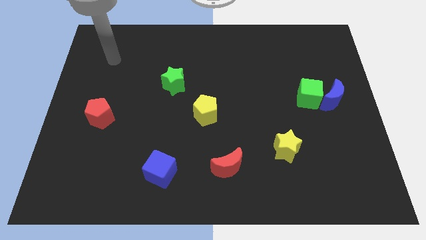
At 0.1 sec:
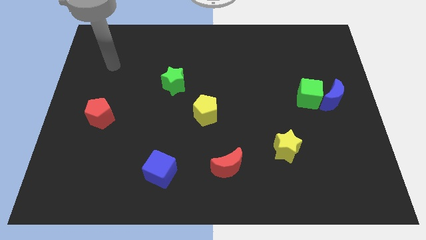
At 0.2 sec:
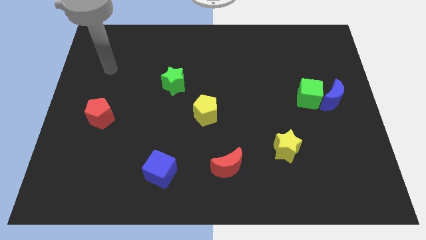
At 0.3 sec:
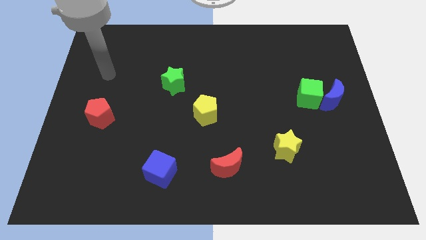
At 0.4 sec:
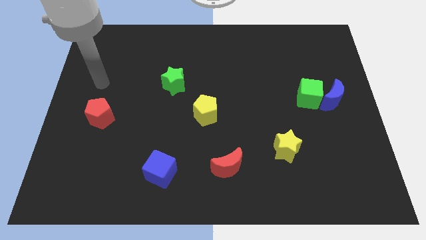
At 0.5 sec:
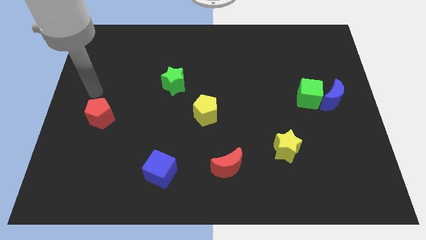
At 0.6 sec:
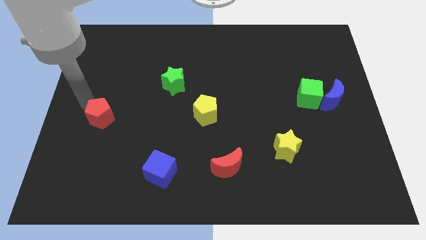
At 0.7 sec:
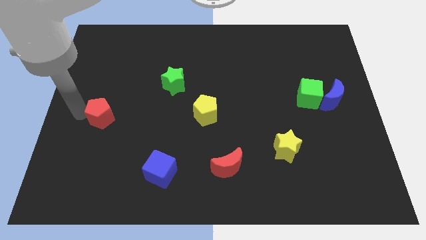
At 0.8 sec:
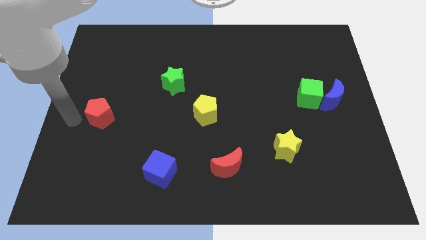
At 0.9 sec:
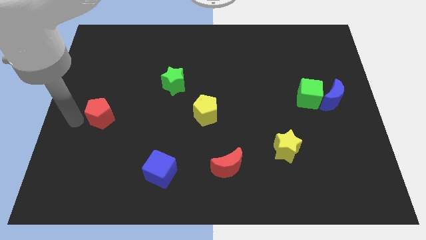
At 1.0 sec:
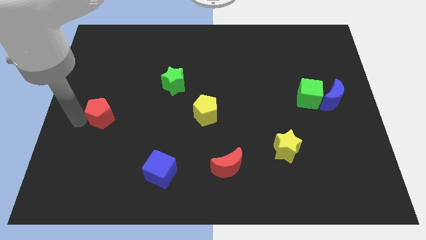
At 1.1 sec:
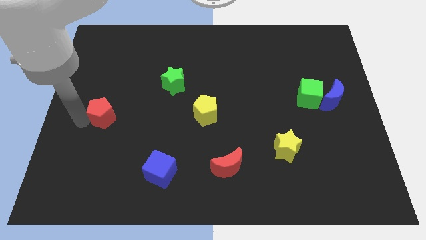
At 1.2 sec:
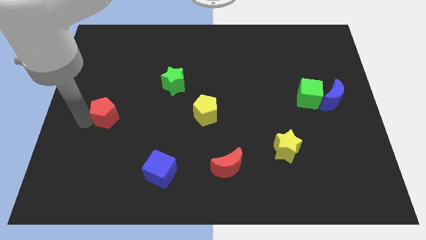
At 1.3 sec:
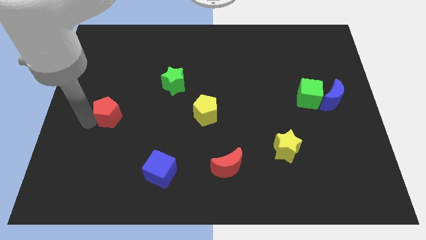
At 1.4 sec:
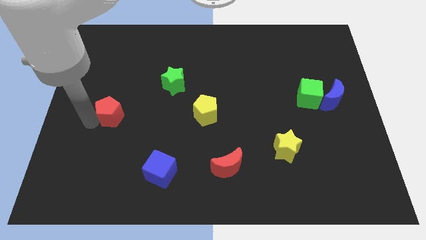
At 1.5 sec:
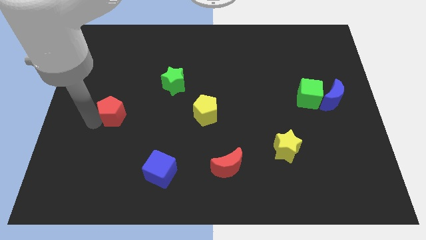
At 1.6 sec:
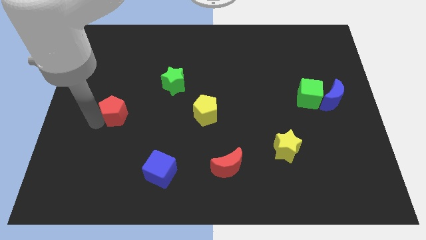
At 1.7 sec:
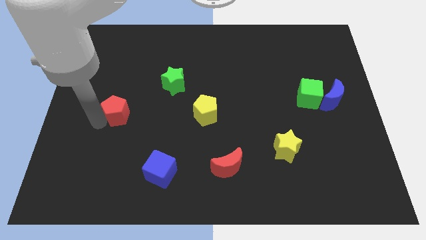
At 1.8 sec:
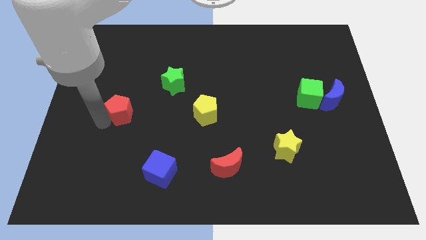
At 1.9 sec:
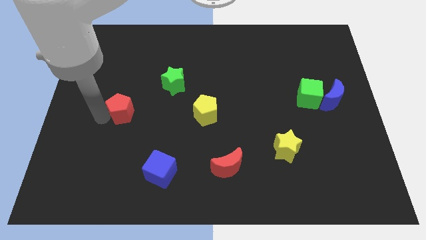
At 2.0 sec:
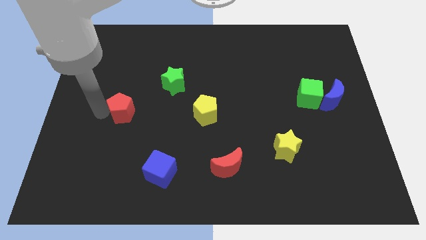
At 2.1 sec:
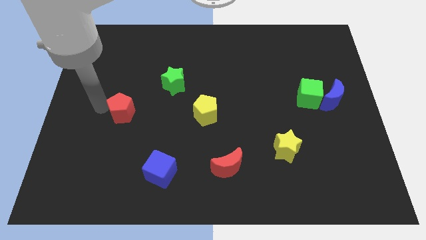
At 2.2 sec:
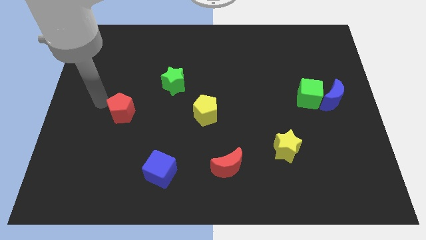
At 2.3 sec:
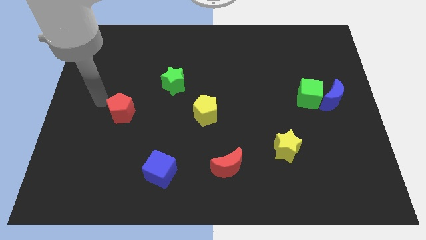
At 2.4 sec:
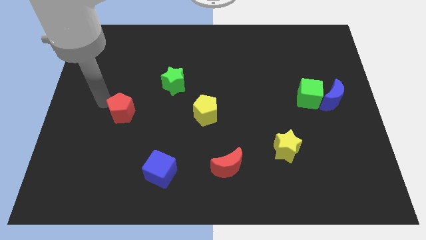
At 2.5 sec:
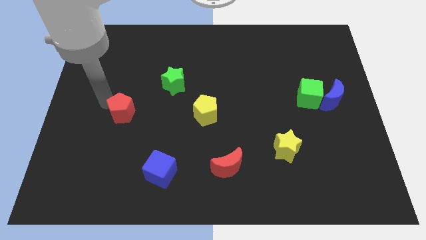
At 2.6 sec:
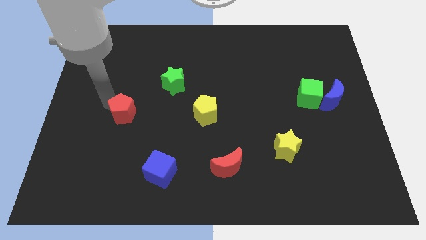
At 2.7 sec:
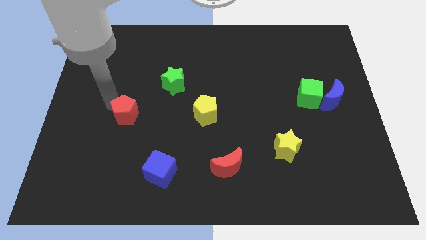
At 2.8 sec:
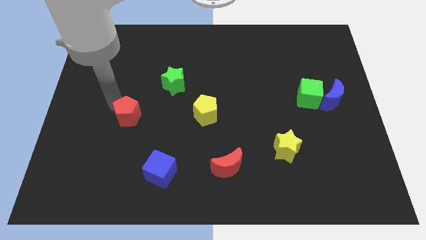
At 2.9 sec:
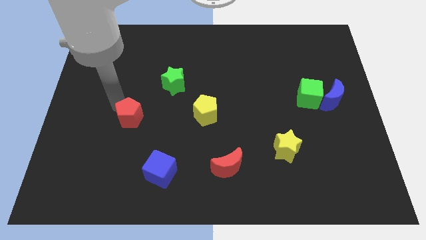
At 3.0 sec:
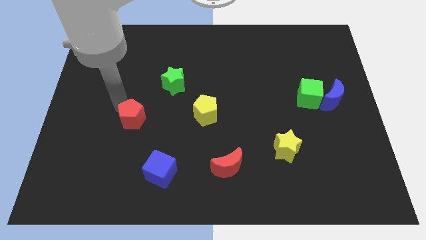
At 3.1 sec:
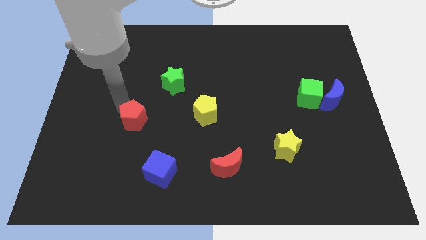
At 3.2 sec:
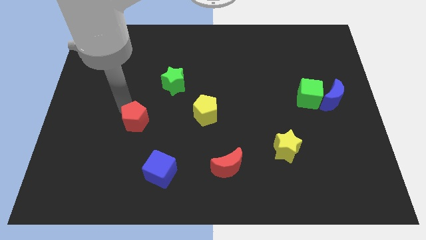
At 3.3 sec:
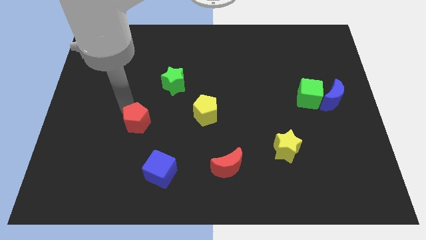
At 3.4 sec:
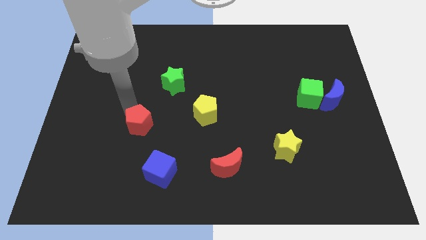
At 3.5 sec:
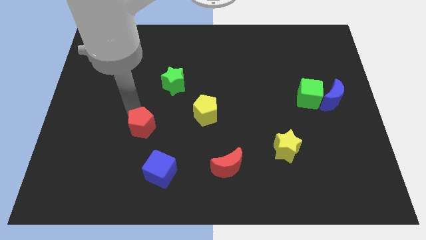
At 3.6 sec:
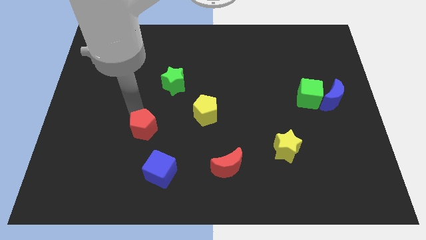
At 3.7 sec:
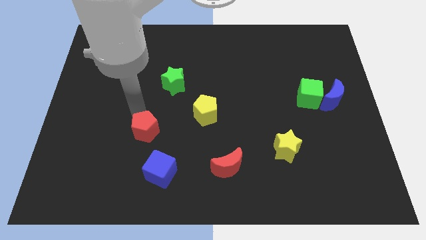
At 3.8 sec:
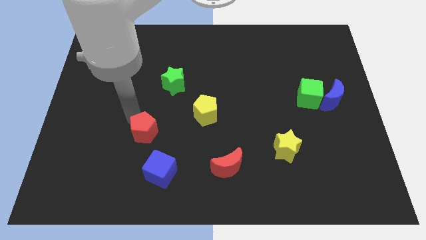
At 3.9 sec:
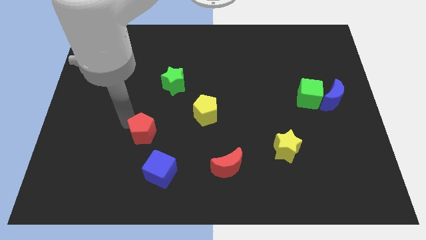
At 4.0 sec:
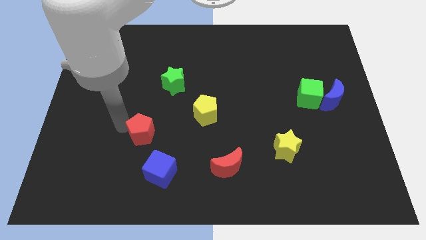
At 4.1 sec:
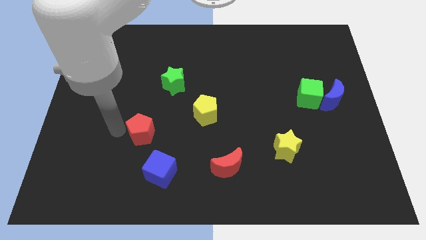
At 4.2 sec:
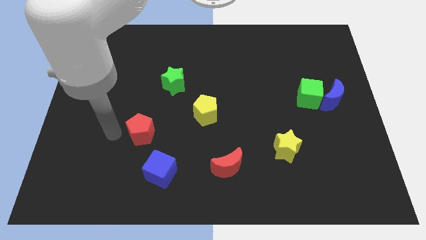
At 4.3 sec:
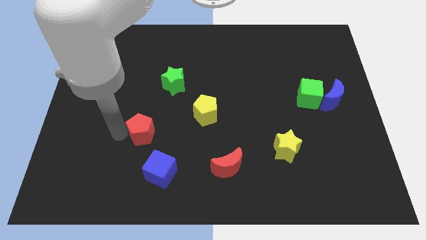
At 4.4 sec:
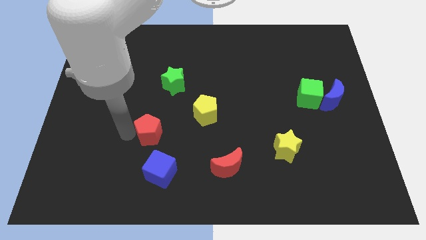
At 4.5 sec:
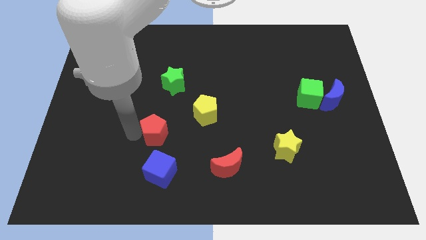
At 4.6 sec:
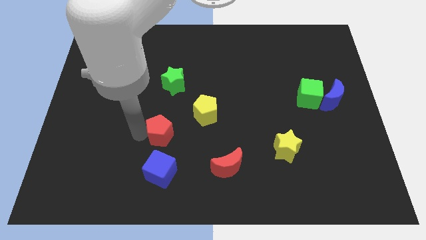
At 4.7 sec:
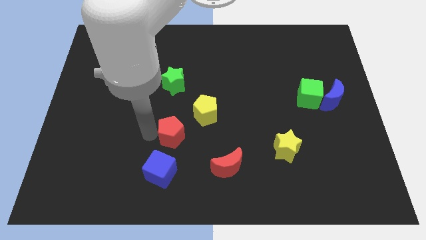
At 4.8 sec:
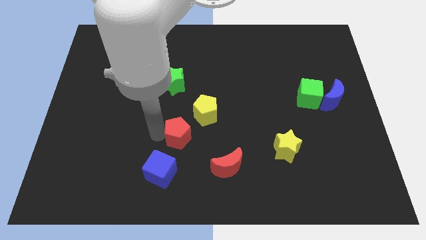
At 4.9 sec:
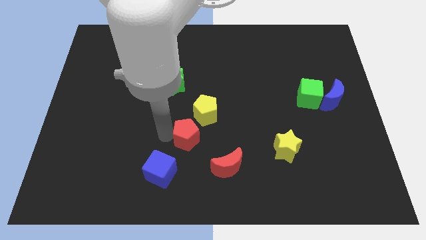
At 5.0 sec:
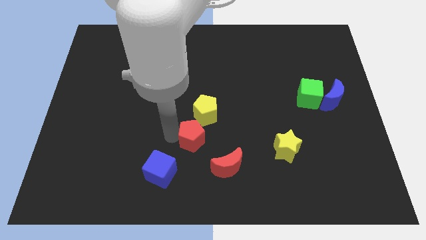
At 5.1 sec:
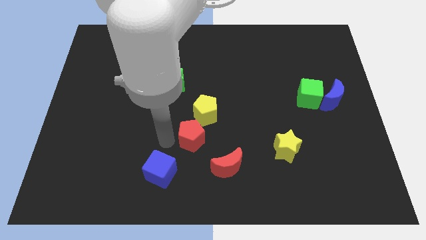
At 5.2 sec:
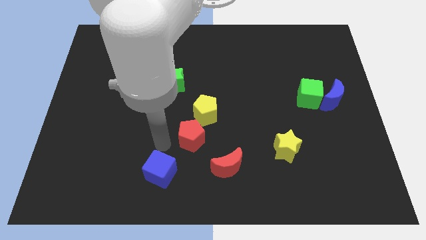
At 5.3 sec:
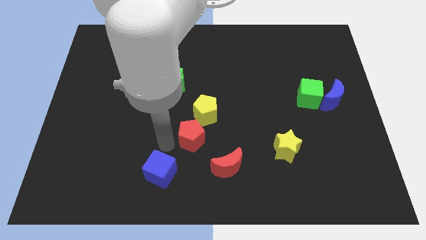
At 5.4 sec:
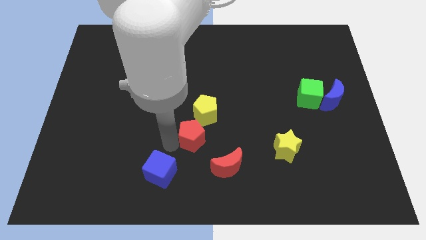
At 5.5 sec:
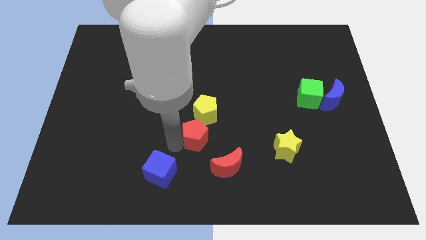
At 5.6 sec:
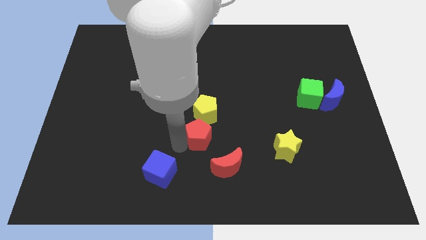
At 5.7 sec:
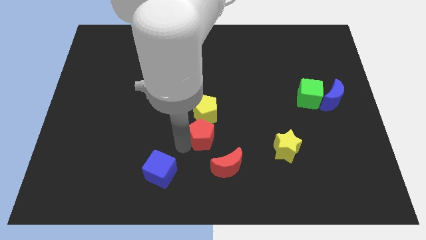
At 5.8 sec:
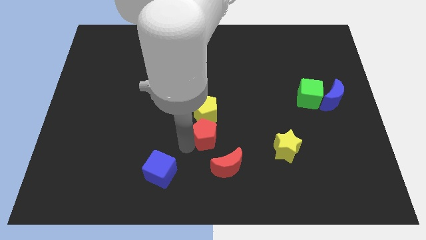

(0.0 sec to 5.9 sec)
put the red pentagon diagonally down and to the right of the yellow pentagon

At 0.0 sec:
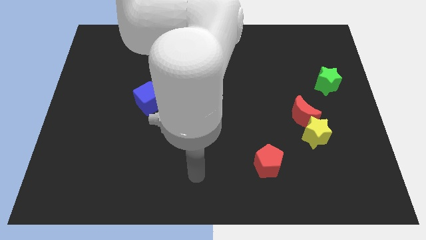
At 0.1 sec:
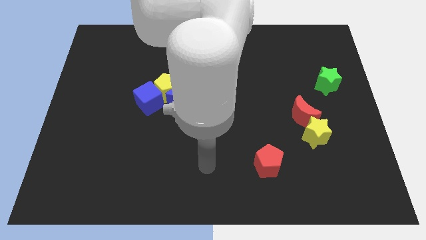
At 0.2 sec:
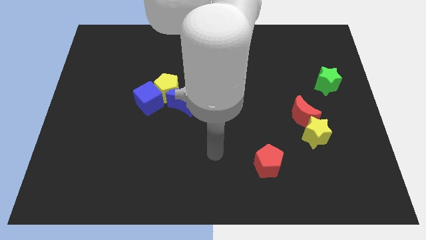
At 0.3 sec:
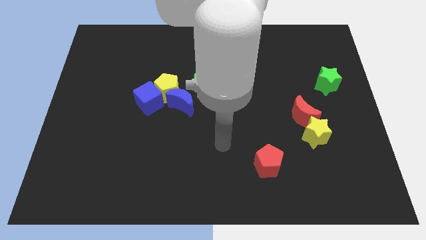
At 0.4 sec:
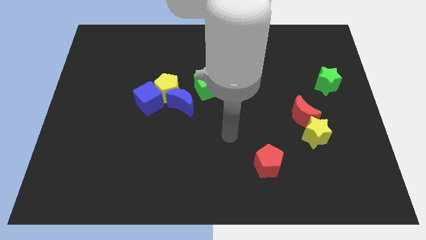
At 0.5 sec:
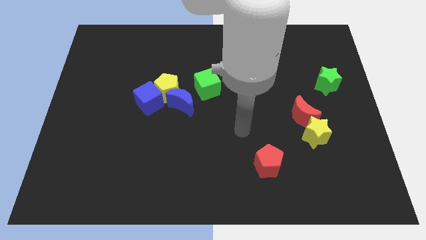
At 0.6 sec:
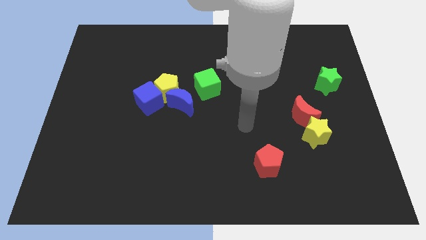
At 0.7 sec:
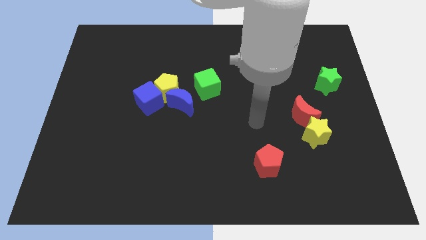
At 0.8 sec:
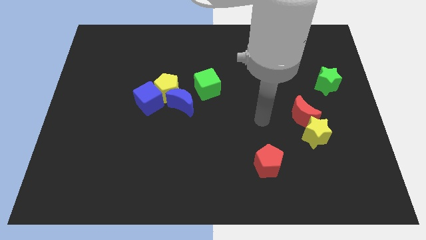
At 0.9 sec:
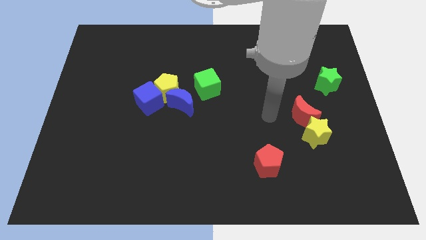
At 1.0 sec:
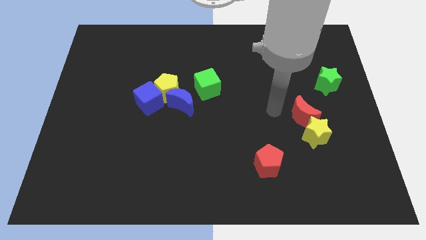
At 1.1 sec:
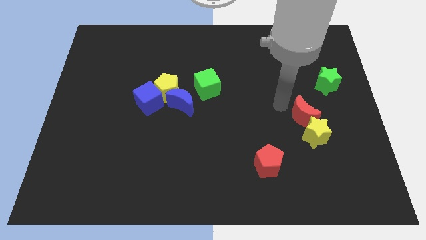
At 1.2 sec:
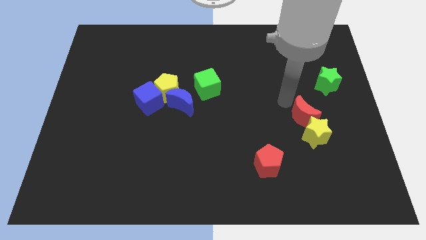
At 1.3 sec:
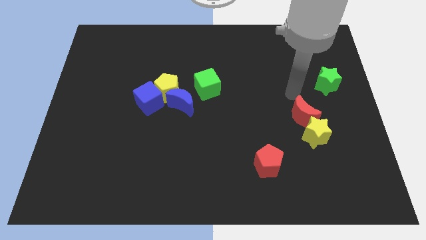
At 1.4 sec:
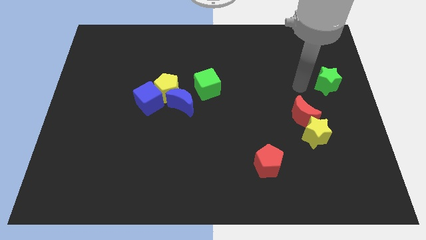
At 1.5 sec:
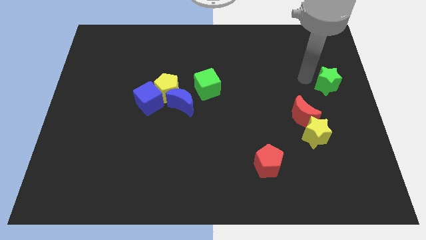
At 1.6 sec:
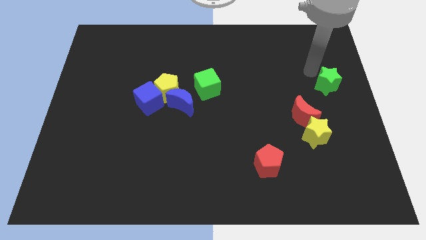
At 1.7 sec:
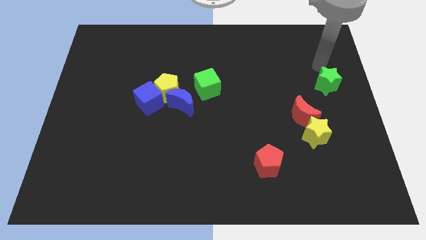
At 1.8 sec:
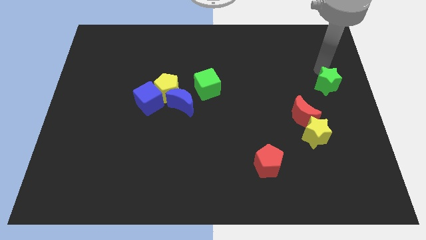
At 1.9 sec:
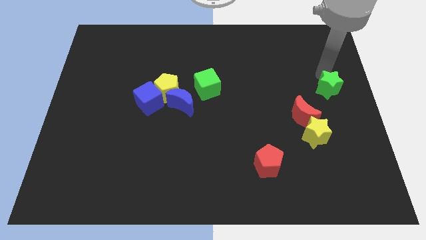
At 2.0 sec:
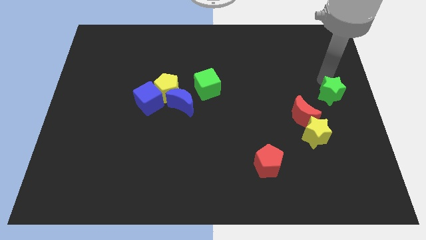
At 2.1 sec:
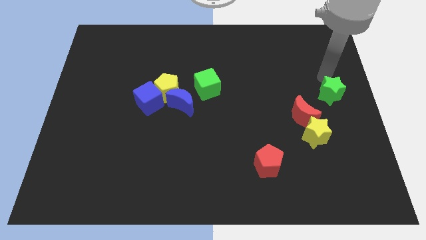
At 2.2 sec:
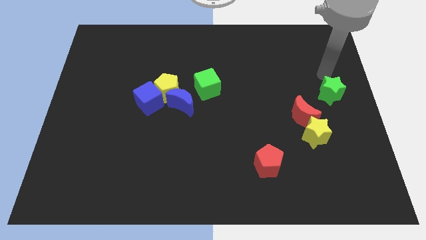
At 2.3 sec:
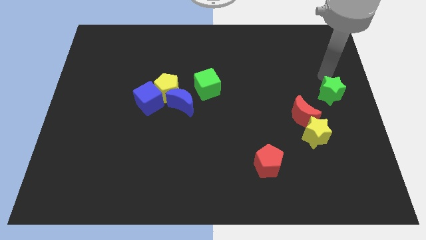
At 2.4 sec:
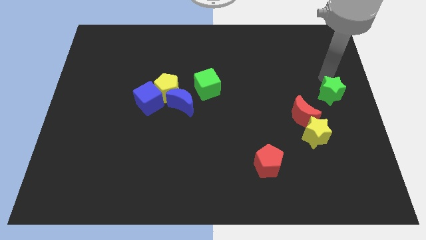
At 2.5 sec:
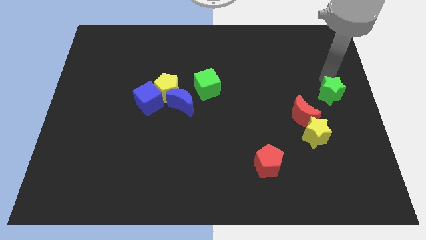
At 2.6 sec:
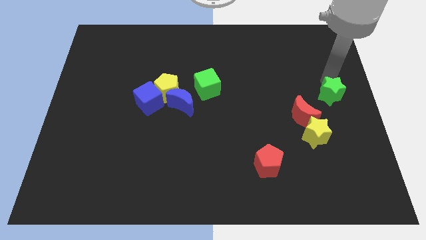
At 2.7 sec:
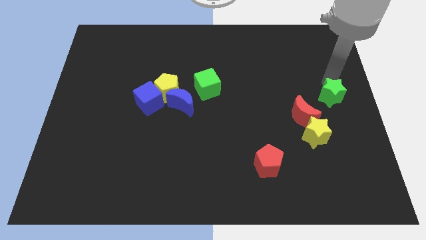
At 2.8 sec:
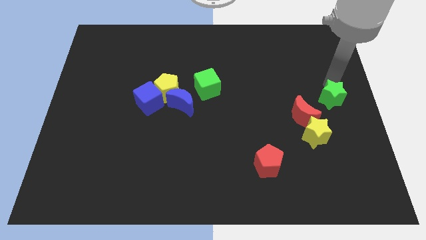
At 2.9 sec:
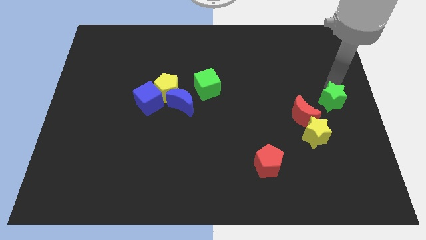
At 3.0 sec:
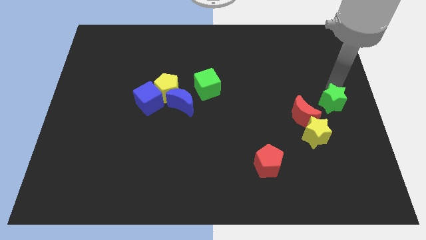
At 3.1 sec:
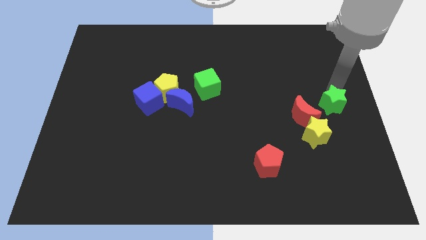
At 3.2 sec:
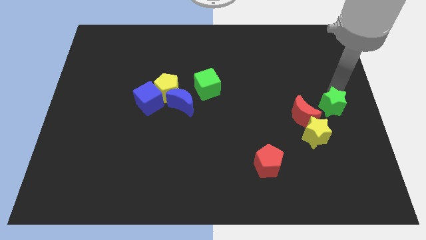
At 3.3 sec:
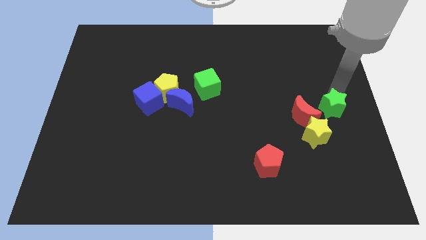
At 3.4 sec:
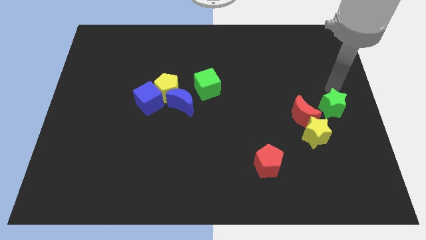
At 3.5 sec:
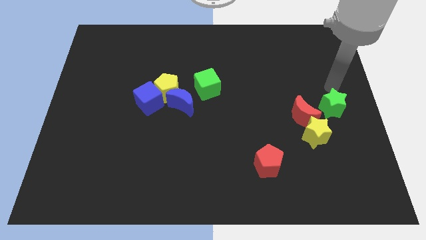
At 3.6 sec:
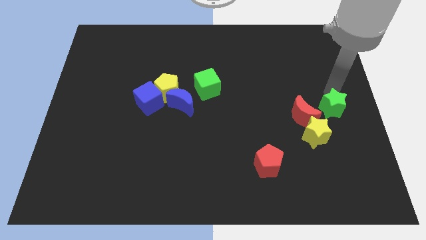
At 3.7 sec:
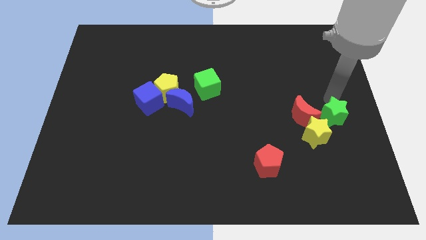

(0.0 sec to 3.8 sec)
slide the green star to the bottom right of the red moon
